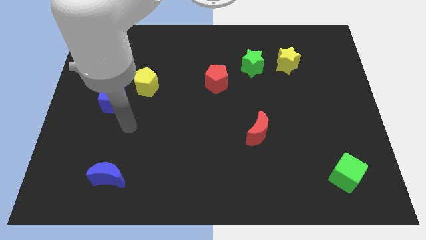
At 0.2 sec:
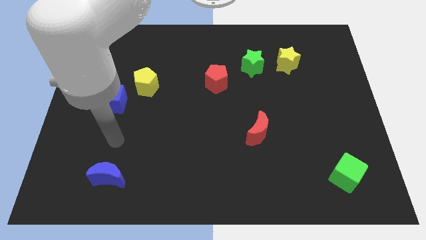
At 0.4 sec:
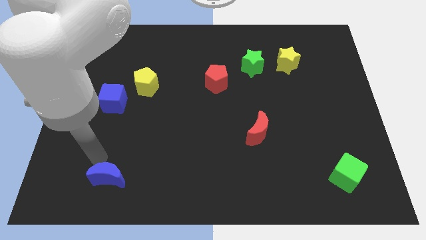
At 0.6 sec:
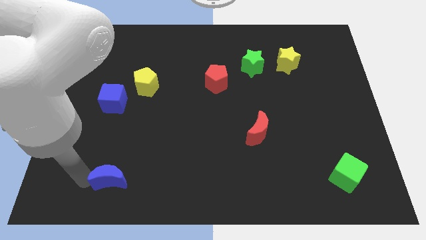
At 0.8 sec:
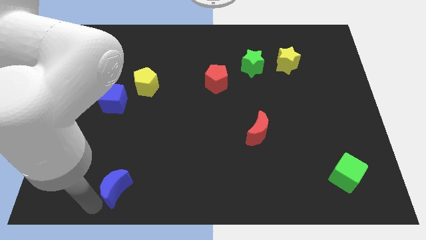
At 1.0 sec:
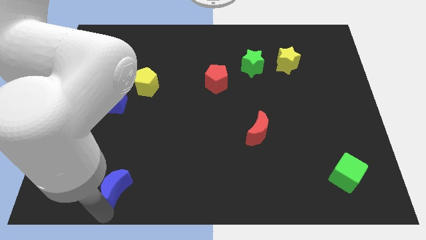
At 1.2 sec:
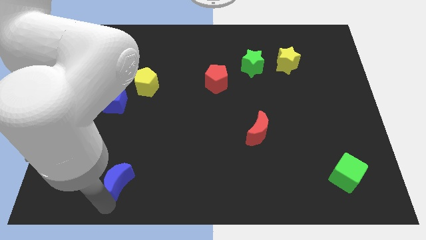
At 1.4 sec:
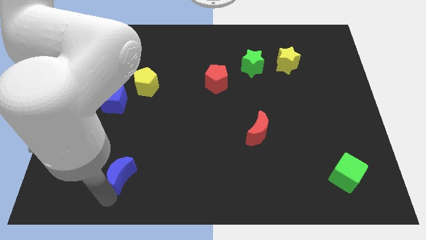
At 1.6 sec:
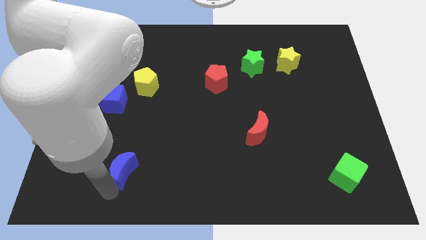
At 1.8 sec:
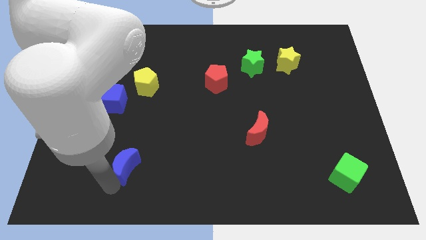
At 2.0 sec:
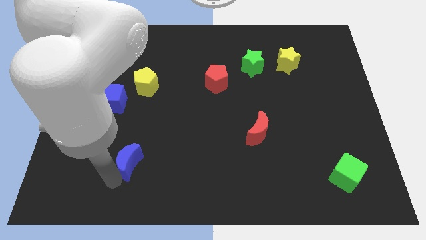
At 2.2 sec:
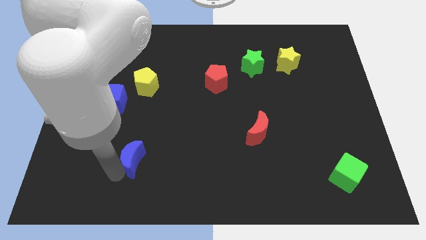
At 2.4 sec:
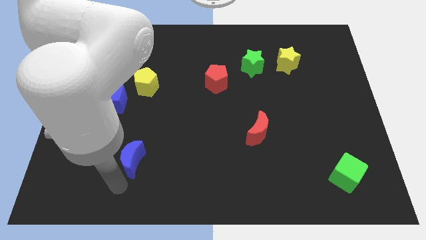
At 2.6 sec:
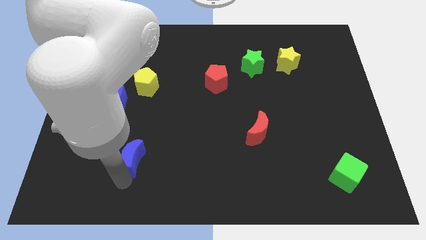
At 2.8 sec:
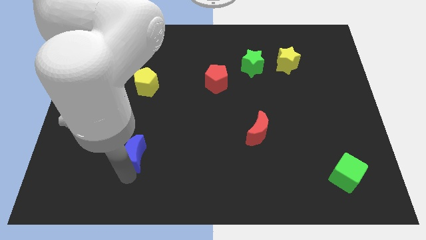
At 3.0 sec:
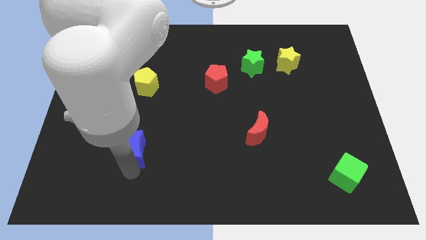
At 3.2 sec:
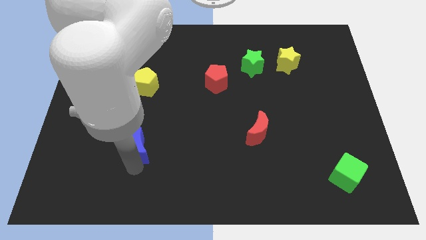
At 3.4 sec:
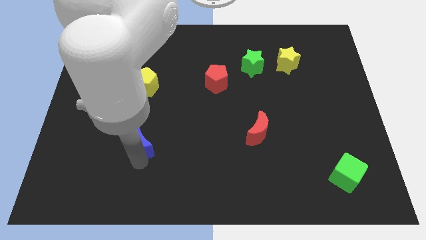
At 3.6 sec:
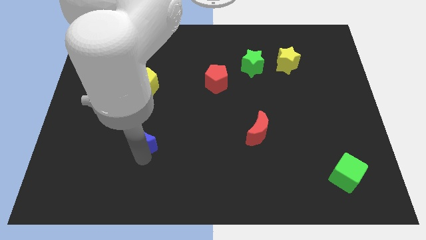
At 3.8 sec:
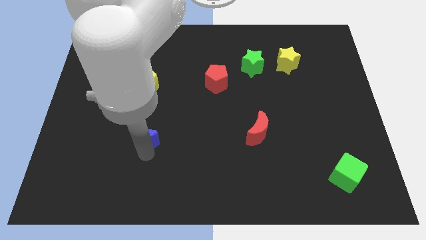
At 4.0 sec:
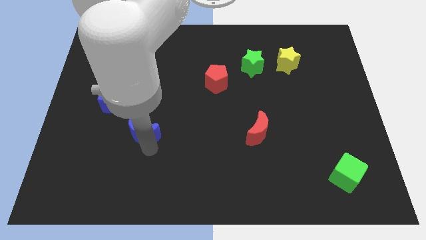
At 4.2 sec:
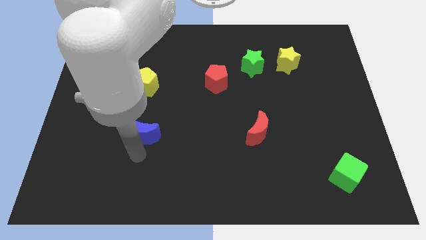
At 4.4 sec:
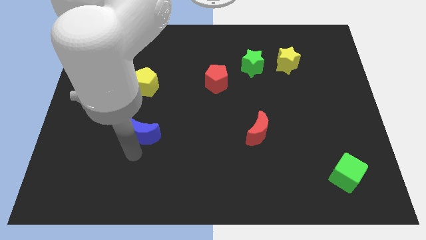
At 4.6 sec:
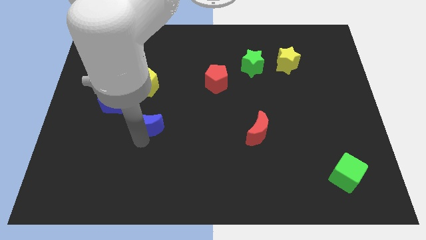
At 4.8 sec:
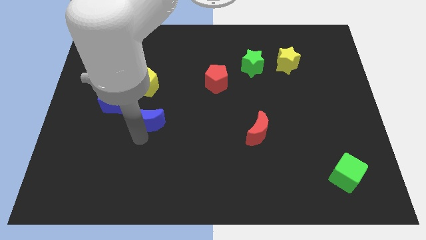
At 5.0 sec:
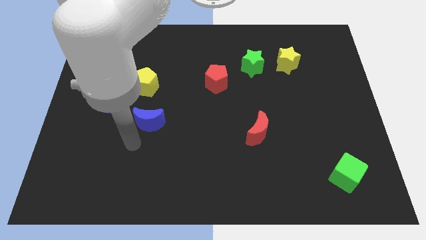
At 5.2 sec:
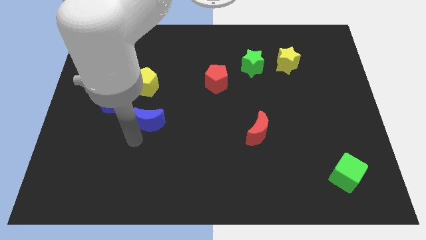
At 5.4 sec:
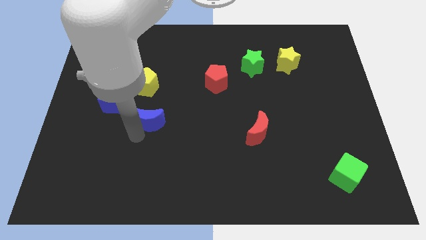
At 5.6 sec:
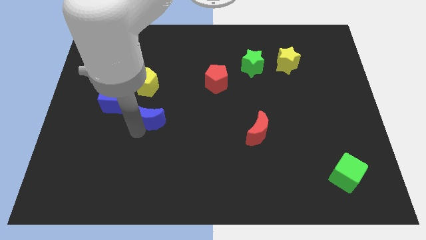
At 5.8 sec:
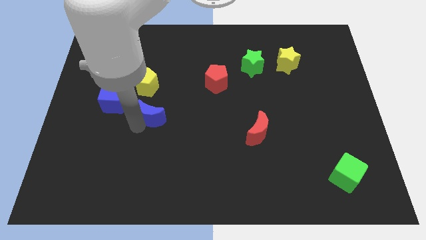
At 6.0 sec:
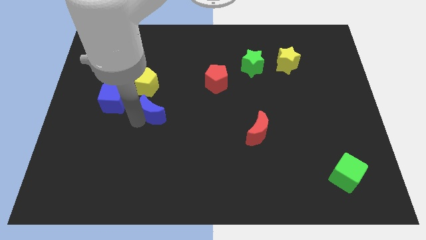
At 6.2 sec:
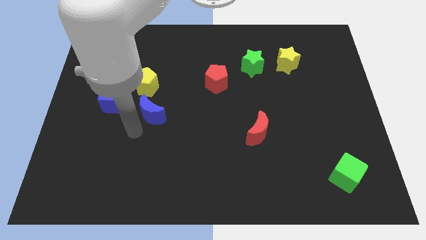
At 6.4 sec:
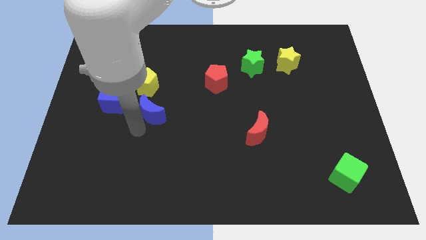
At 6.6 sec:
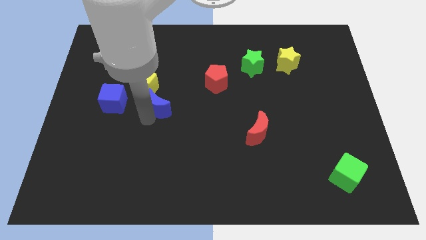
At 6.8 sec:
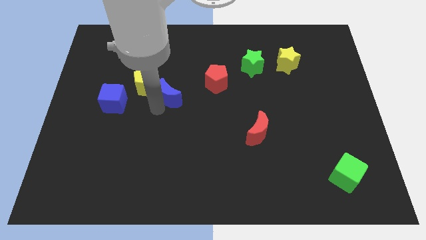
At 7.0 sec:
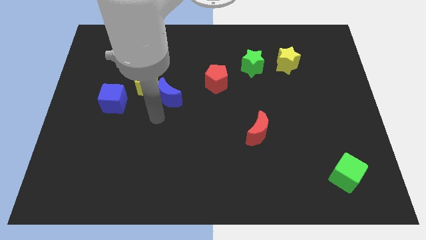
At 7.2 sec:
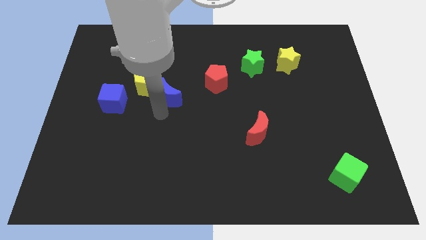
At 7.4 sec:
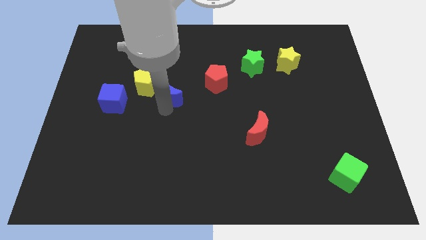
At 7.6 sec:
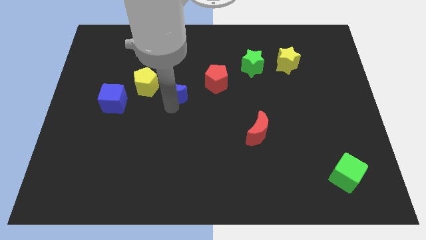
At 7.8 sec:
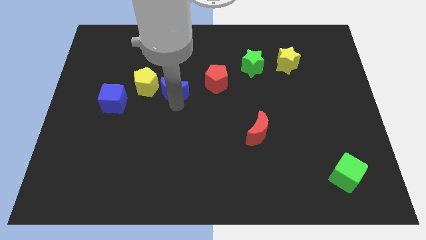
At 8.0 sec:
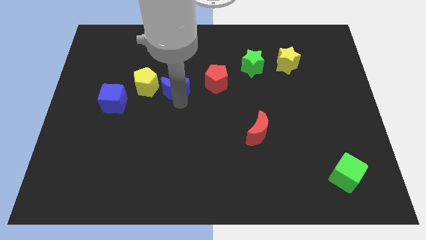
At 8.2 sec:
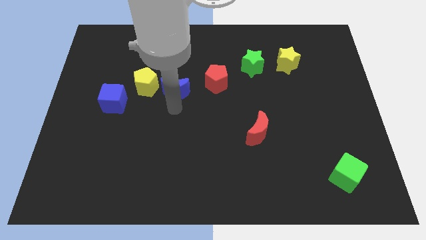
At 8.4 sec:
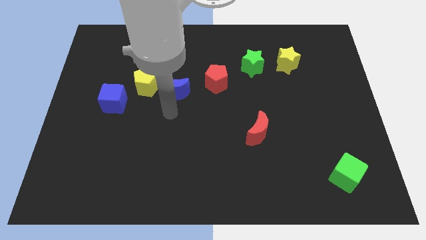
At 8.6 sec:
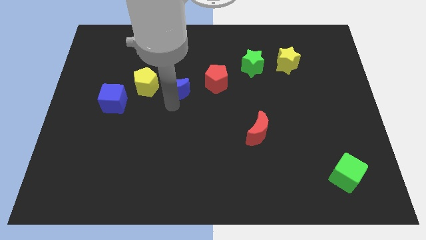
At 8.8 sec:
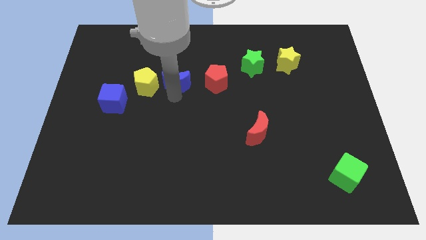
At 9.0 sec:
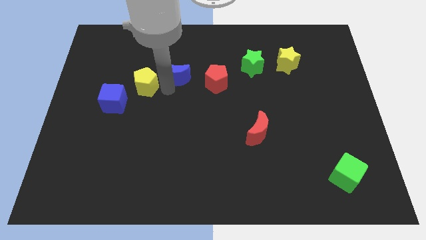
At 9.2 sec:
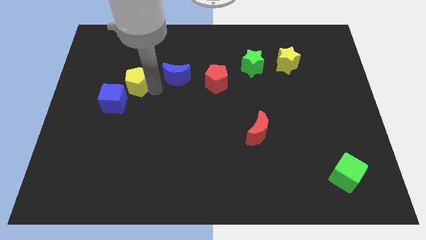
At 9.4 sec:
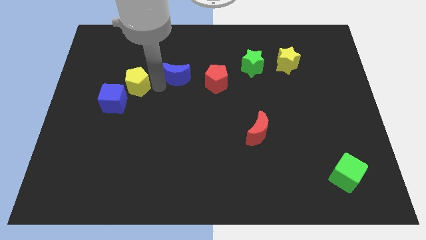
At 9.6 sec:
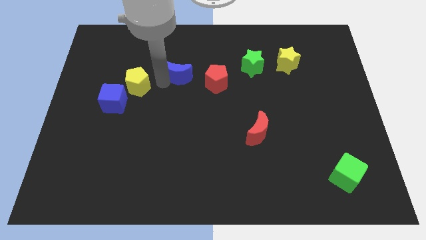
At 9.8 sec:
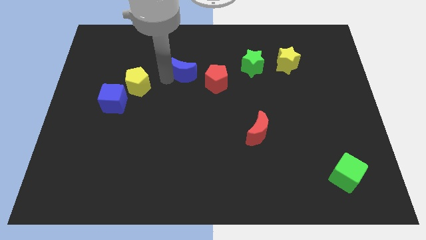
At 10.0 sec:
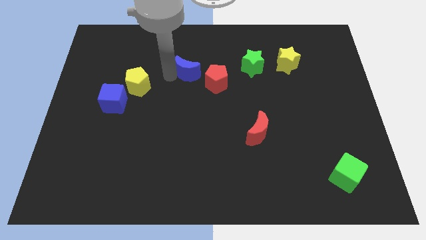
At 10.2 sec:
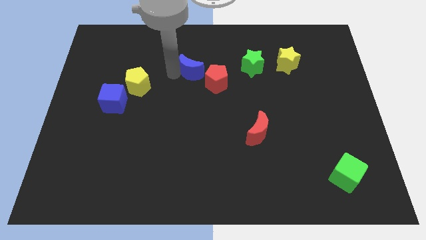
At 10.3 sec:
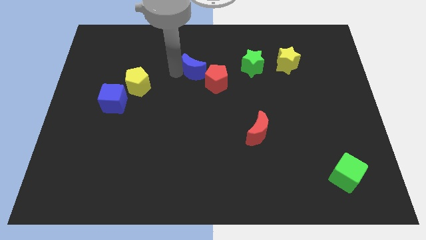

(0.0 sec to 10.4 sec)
put the blue moon to the left side of the green star

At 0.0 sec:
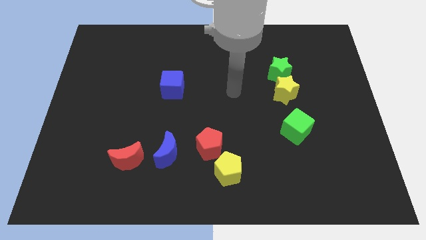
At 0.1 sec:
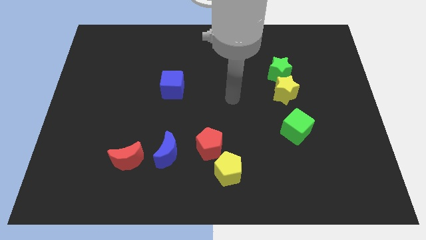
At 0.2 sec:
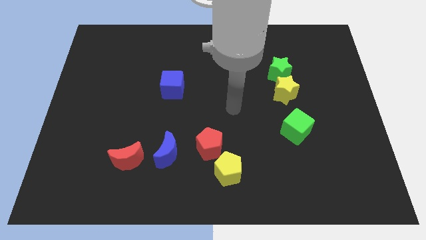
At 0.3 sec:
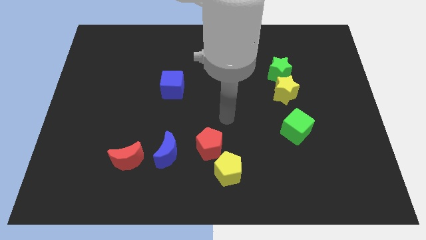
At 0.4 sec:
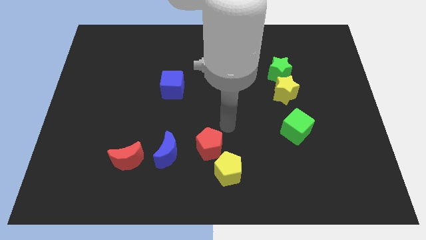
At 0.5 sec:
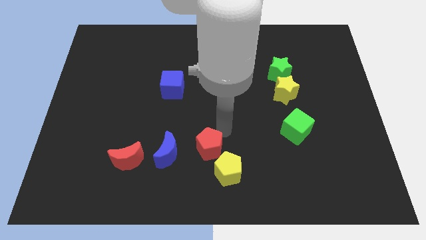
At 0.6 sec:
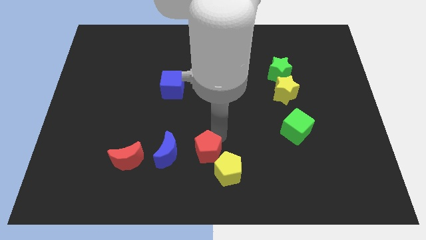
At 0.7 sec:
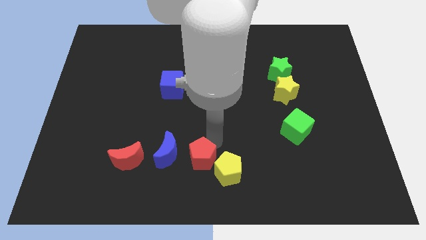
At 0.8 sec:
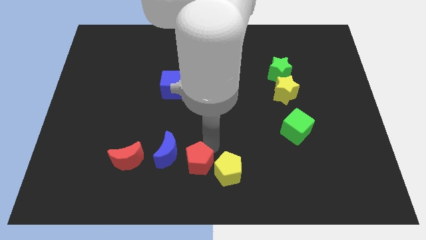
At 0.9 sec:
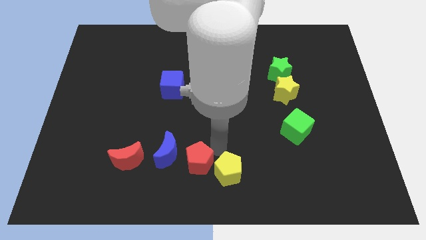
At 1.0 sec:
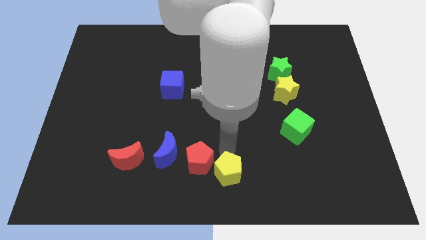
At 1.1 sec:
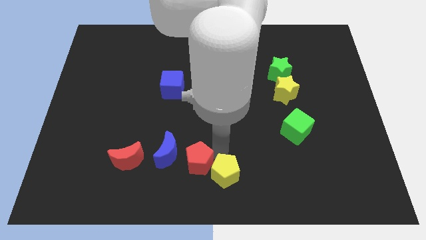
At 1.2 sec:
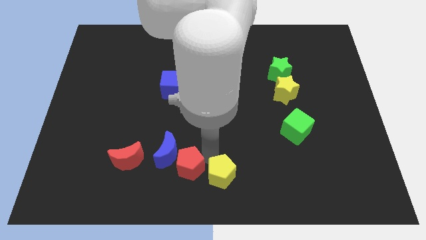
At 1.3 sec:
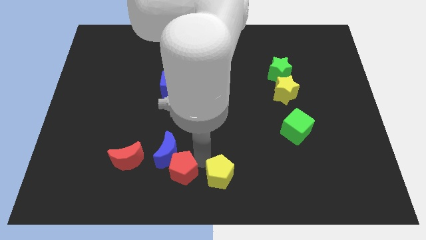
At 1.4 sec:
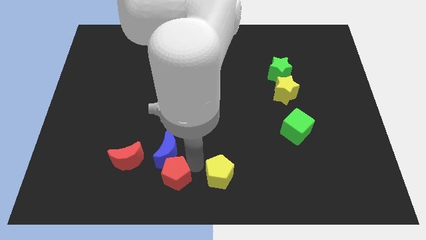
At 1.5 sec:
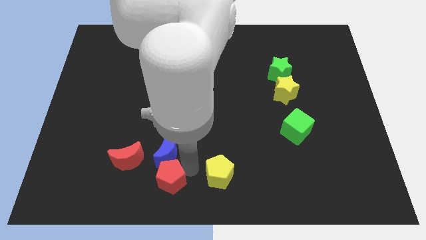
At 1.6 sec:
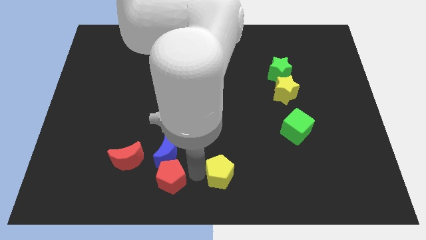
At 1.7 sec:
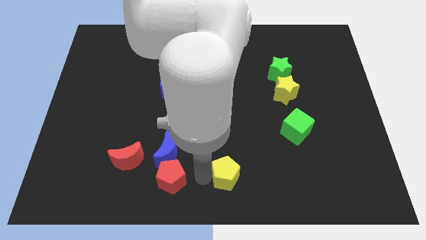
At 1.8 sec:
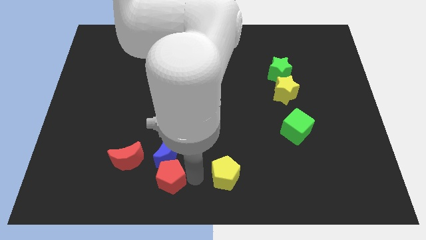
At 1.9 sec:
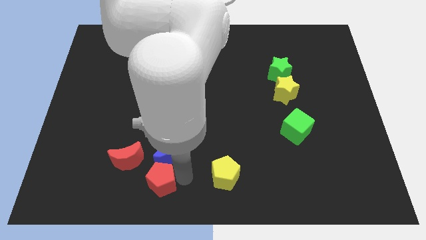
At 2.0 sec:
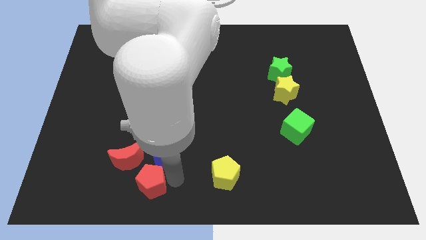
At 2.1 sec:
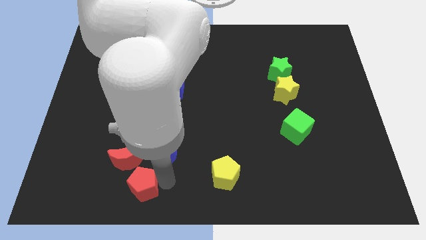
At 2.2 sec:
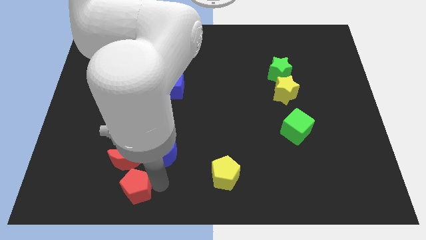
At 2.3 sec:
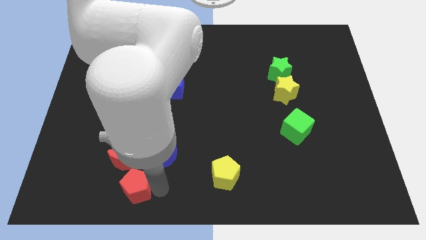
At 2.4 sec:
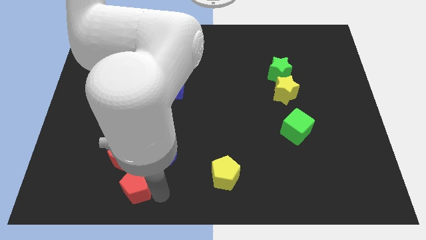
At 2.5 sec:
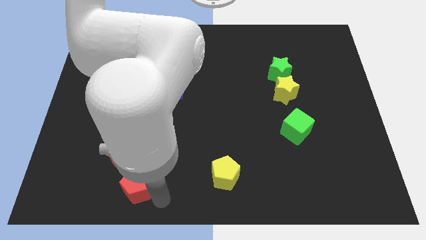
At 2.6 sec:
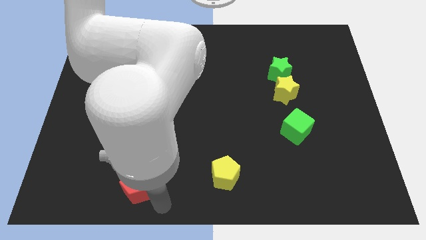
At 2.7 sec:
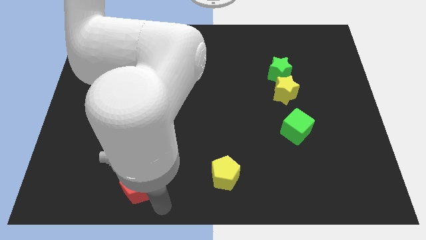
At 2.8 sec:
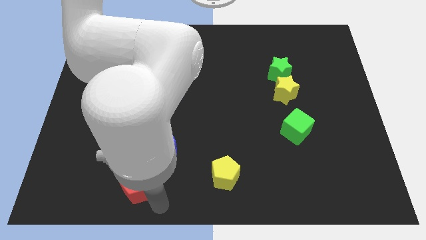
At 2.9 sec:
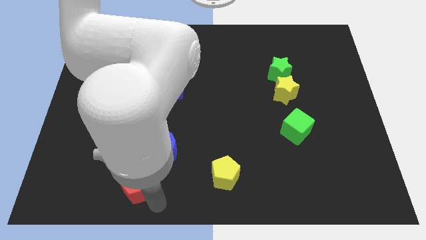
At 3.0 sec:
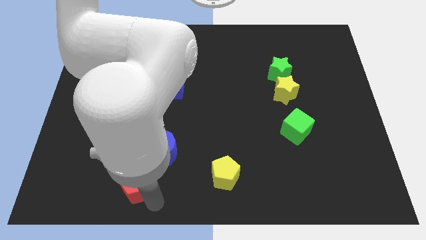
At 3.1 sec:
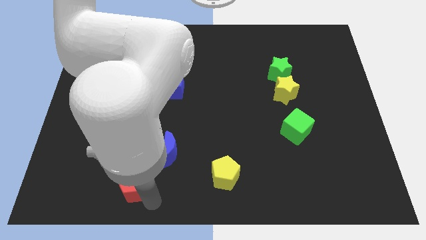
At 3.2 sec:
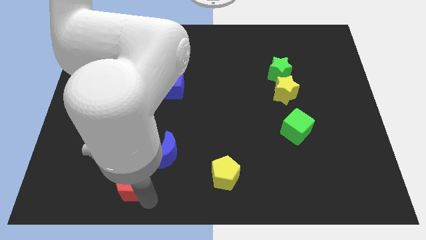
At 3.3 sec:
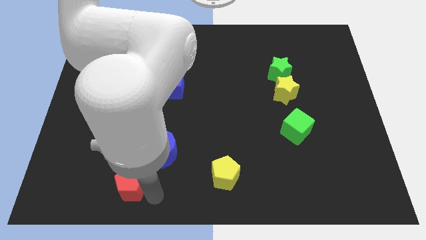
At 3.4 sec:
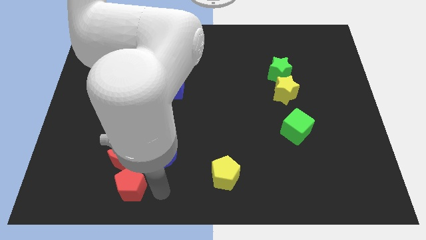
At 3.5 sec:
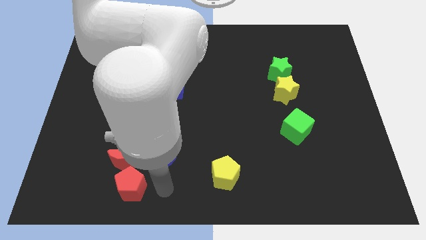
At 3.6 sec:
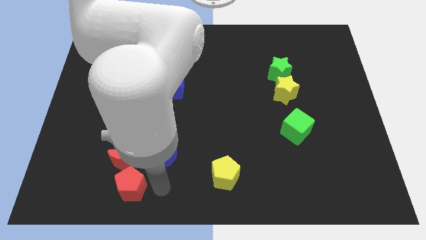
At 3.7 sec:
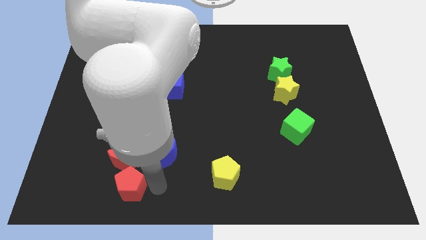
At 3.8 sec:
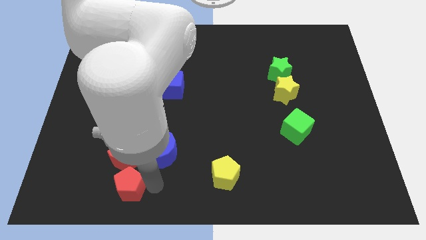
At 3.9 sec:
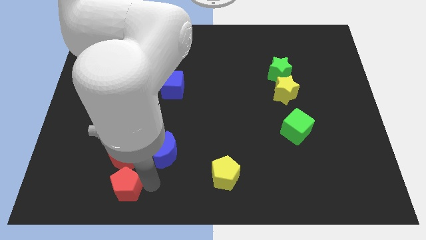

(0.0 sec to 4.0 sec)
move the red pentagon to the bottom left side of the red moon
